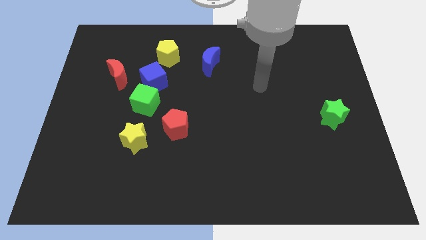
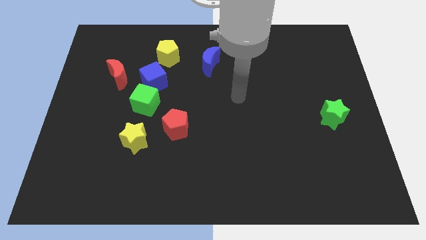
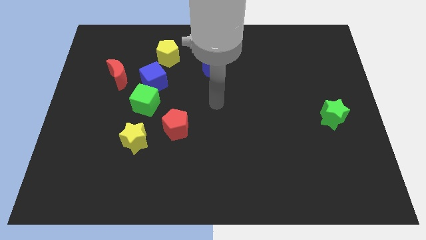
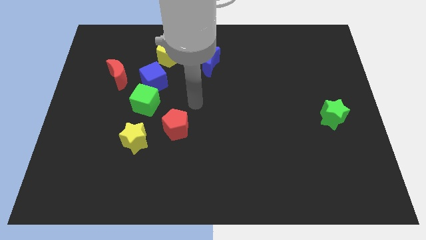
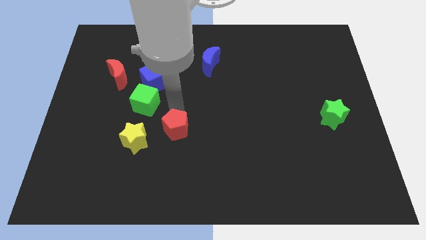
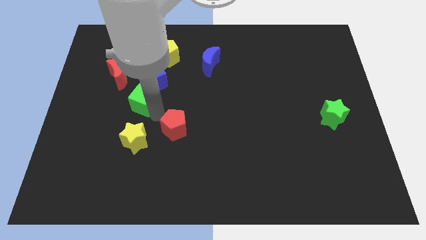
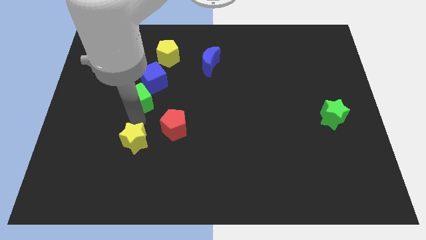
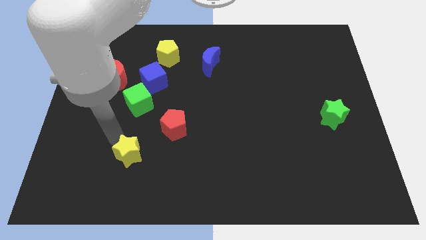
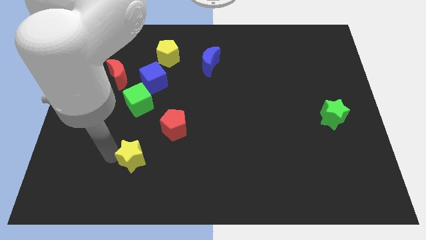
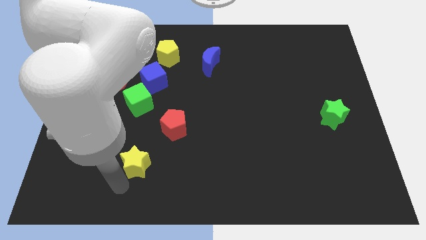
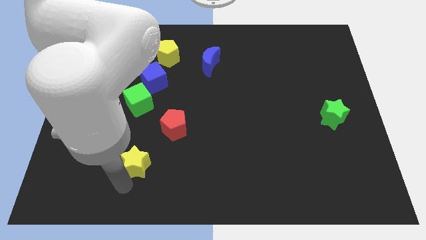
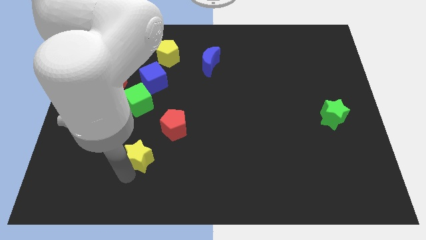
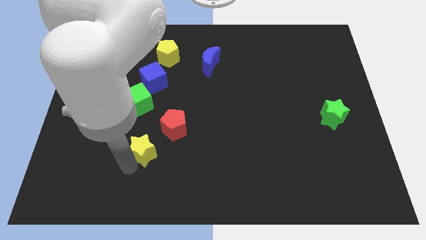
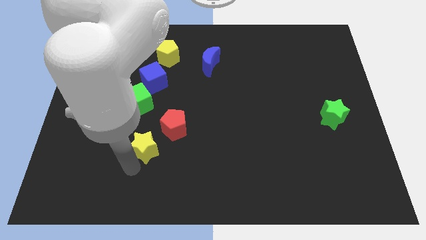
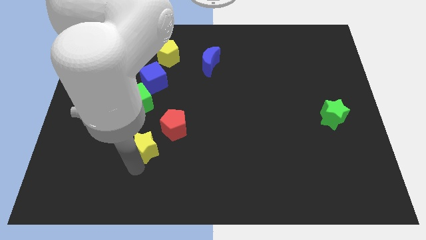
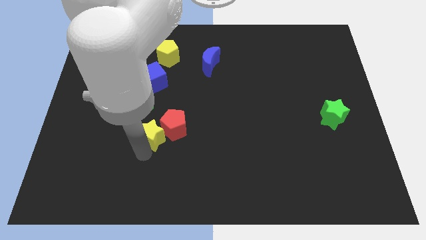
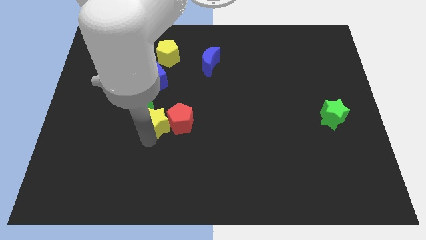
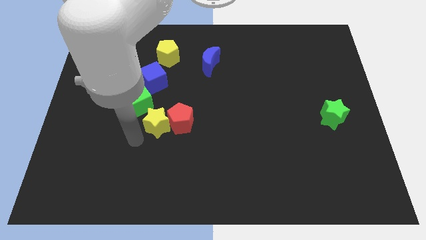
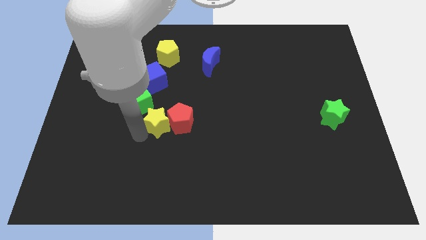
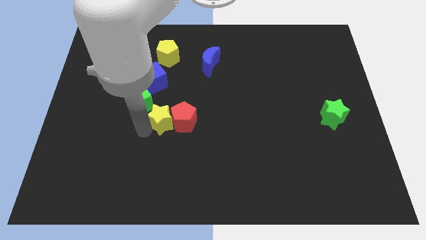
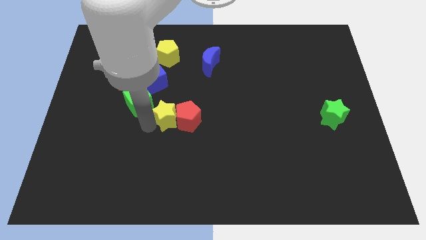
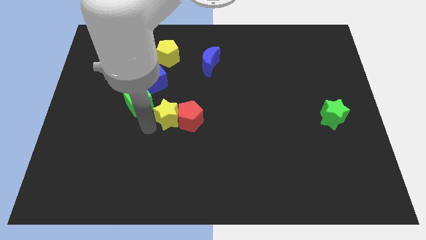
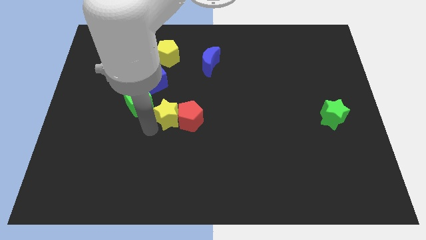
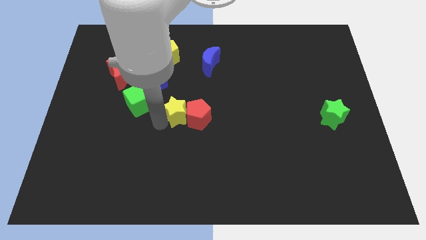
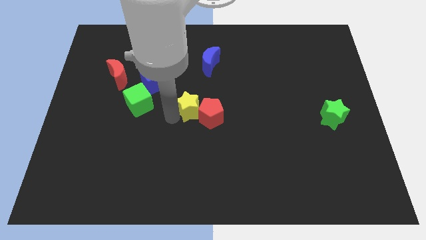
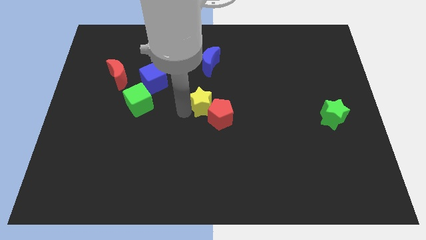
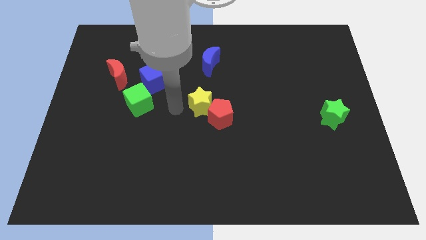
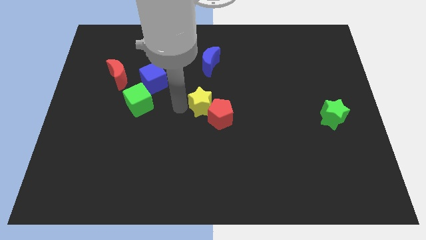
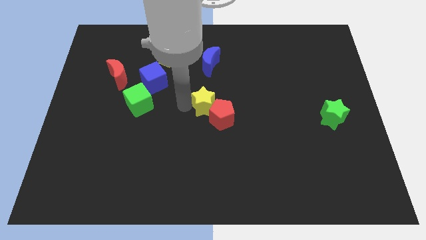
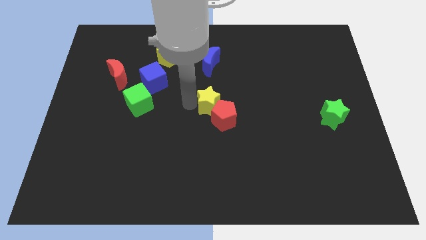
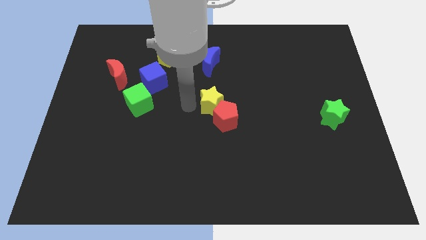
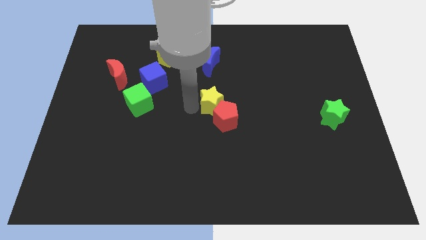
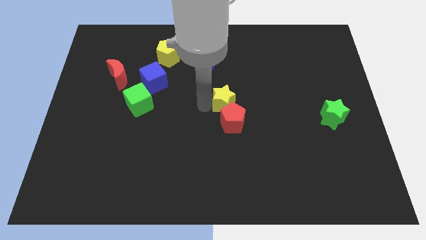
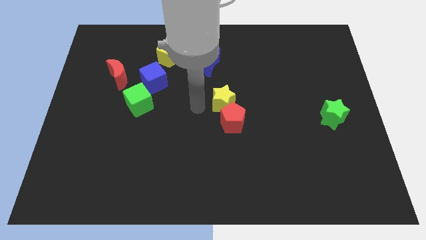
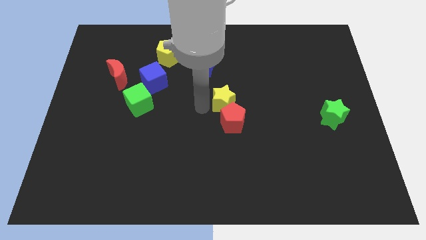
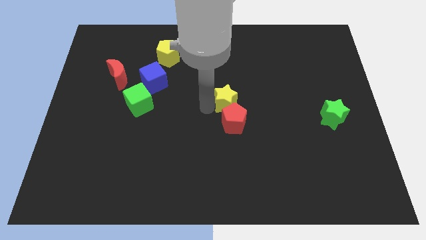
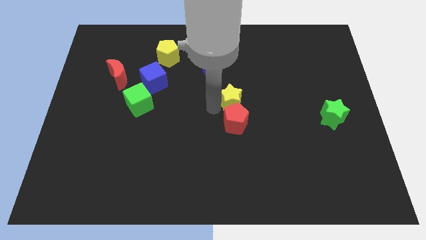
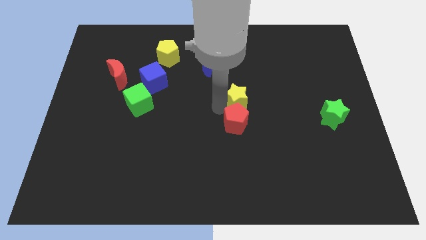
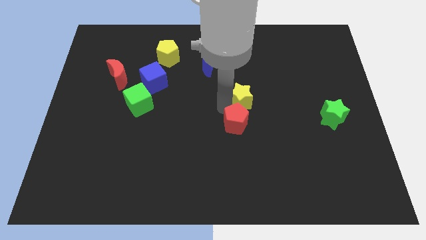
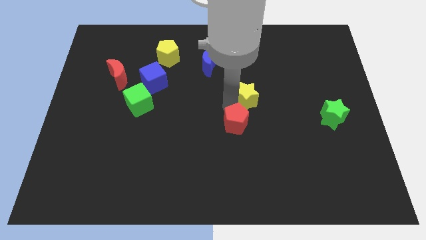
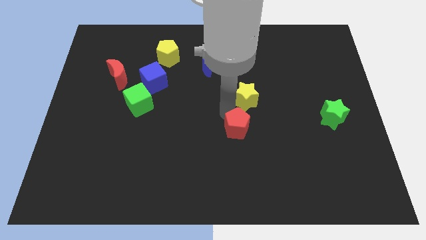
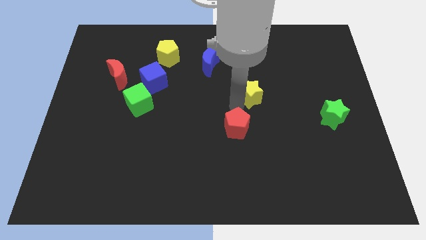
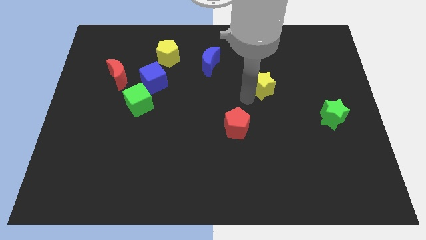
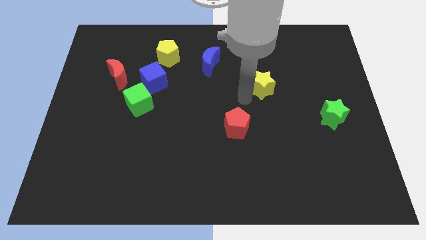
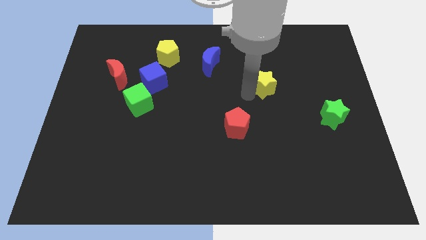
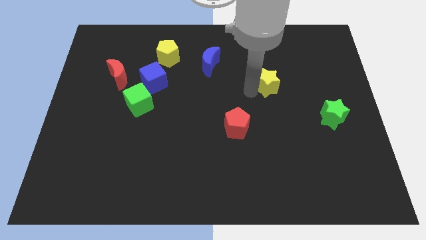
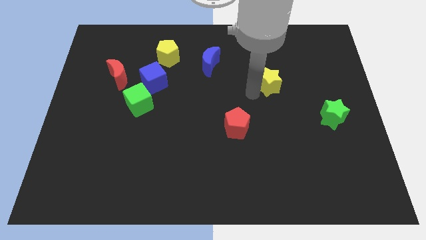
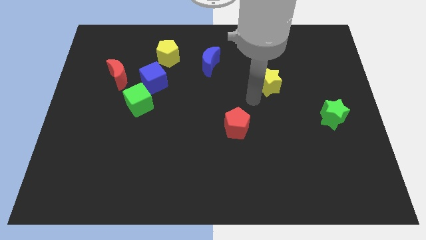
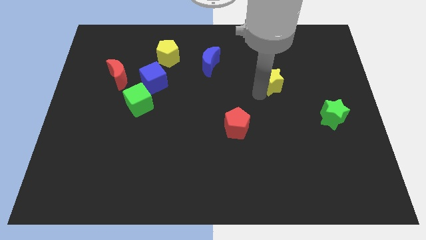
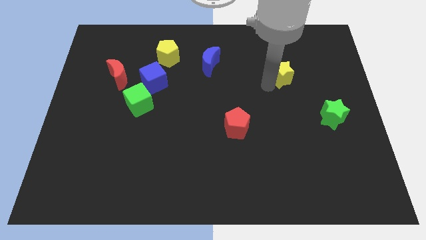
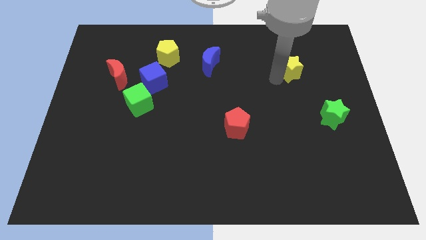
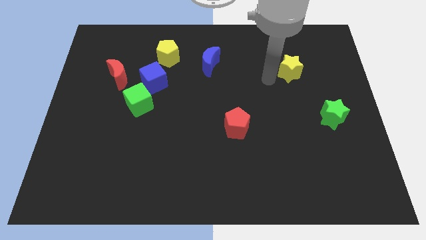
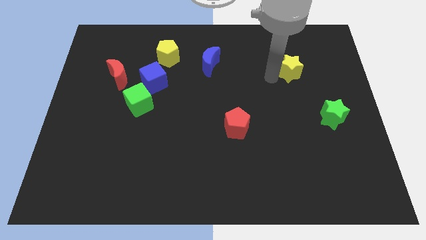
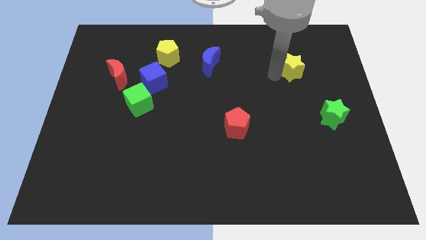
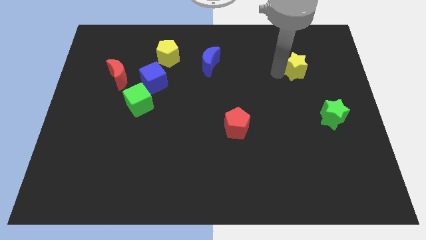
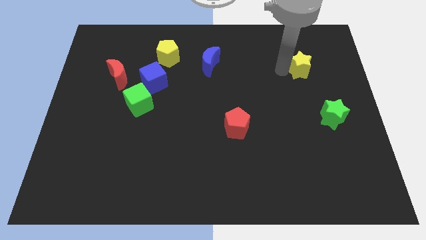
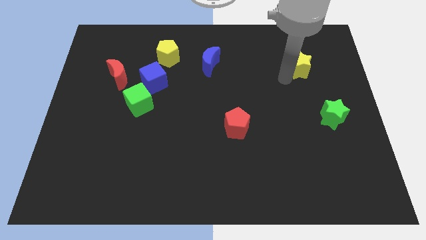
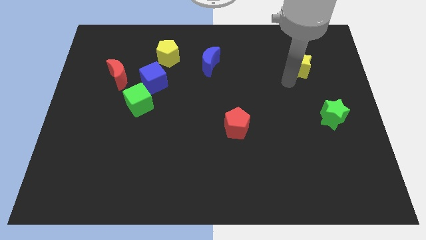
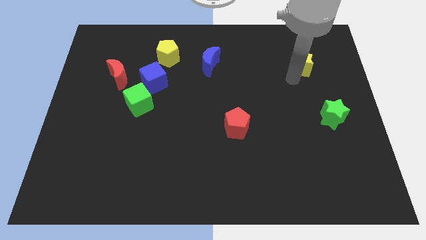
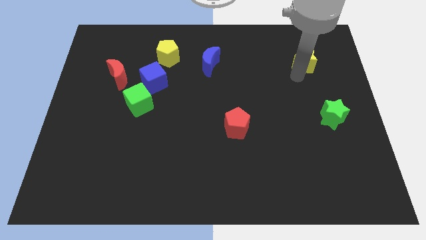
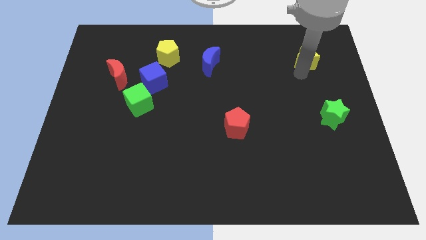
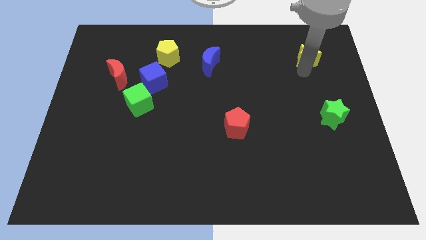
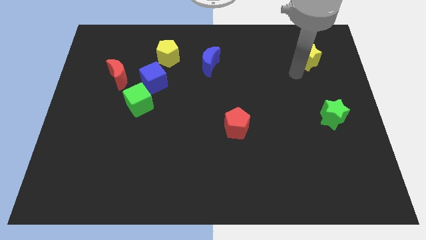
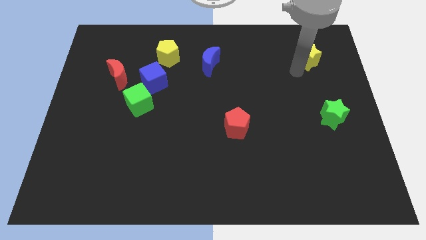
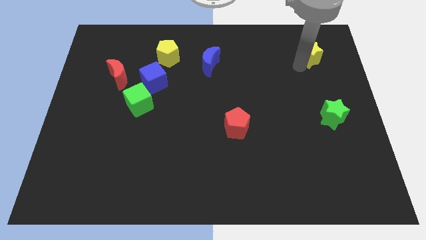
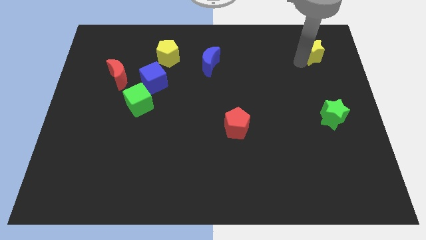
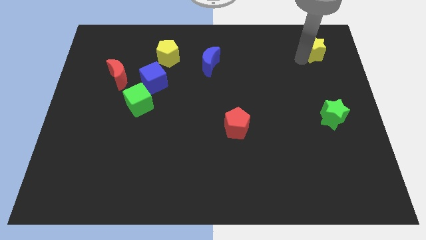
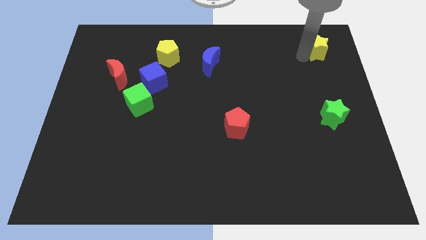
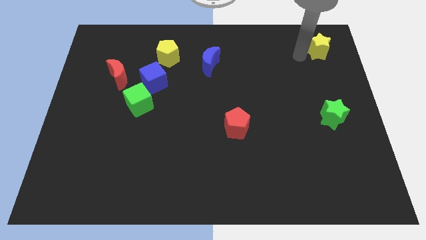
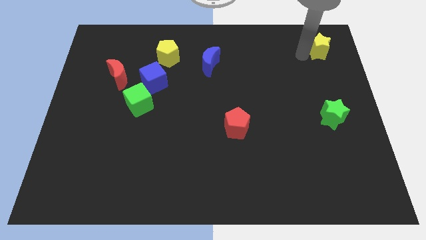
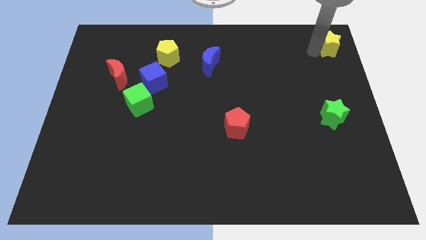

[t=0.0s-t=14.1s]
move the yellow star to the top right
